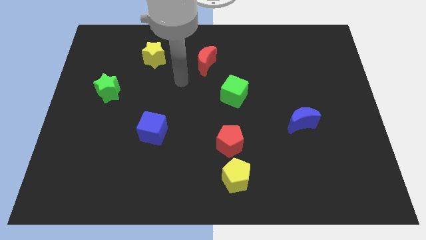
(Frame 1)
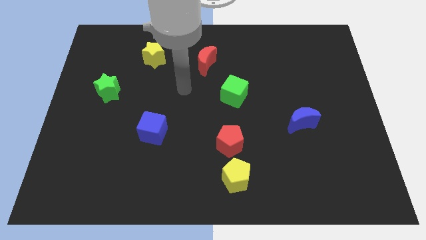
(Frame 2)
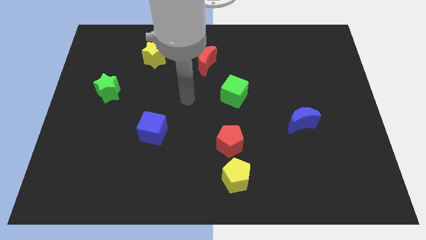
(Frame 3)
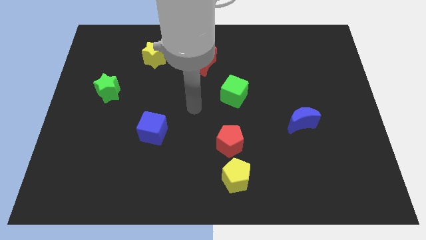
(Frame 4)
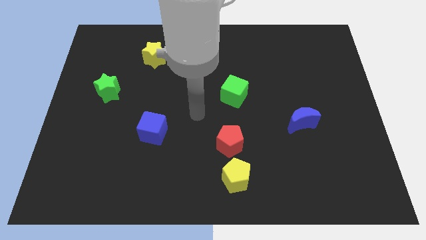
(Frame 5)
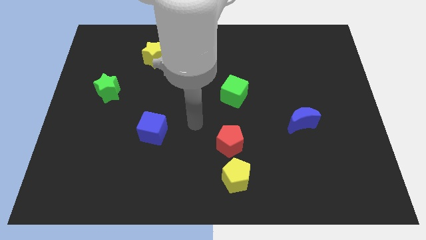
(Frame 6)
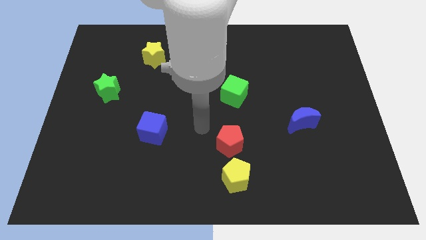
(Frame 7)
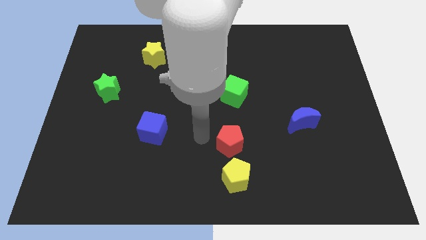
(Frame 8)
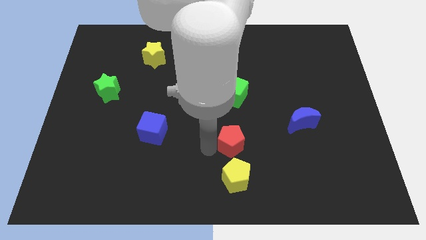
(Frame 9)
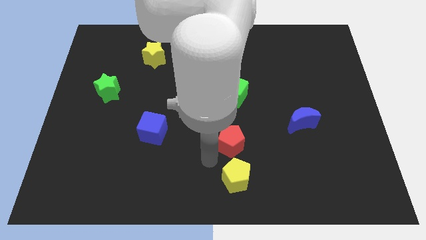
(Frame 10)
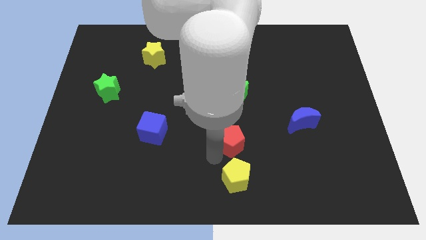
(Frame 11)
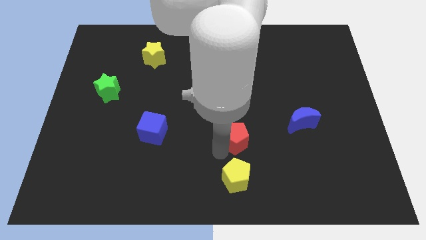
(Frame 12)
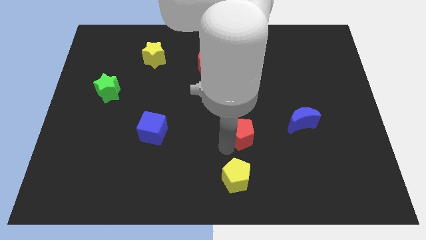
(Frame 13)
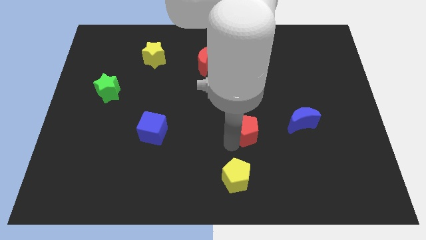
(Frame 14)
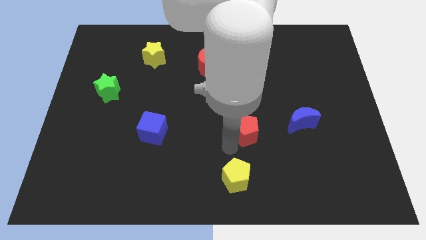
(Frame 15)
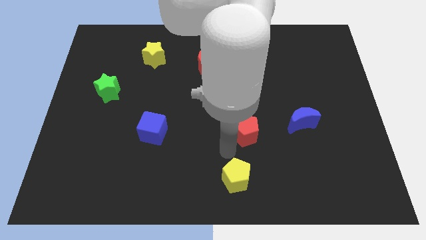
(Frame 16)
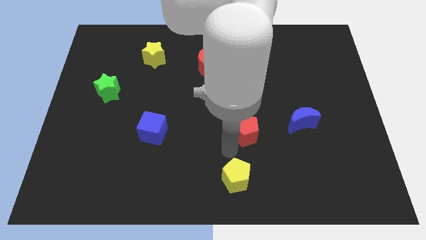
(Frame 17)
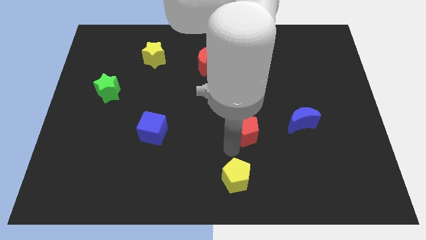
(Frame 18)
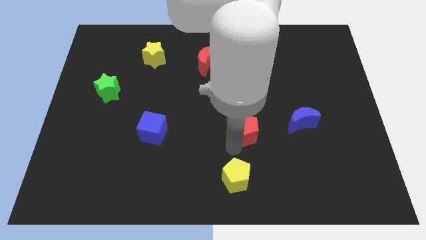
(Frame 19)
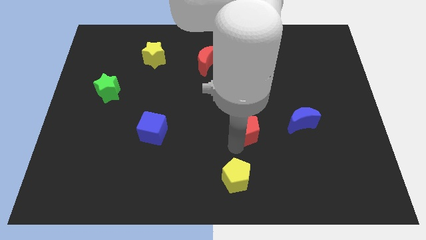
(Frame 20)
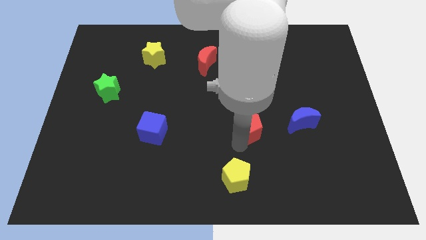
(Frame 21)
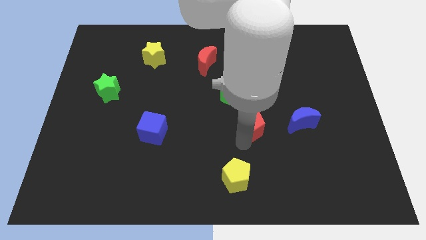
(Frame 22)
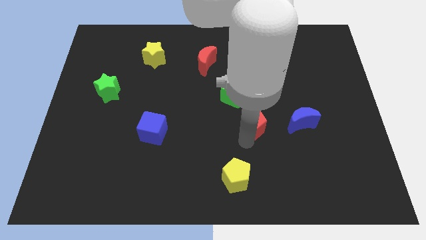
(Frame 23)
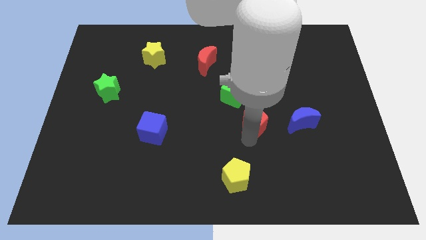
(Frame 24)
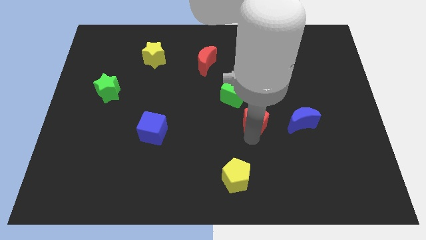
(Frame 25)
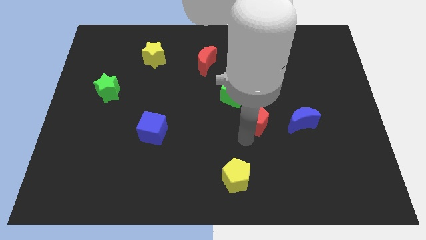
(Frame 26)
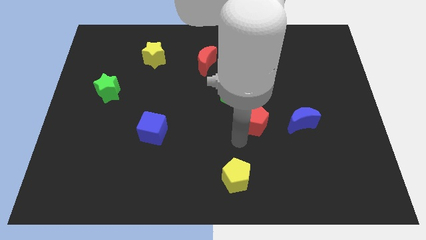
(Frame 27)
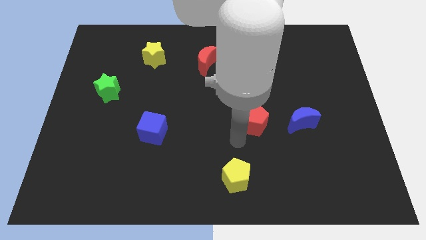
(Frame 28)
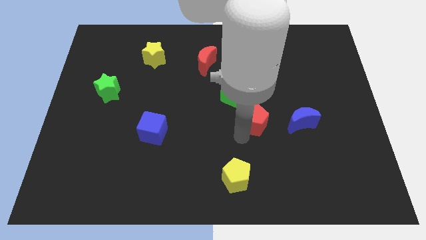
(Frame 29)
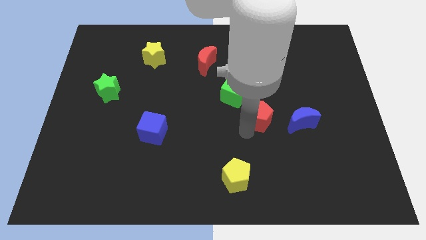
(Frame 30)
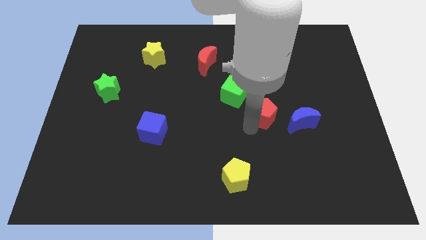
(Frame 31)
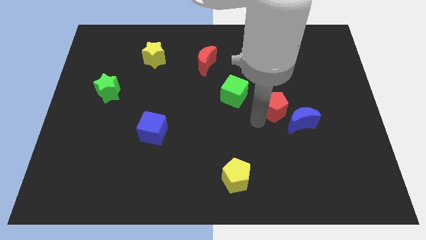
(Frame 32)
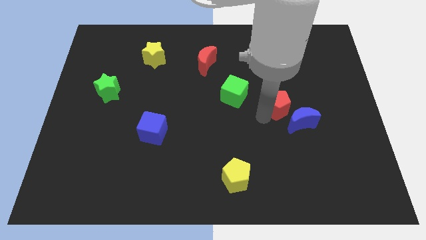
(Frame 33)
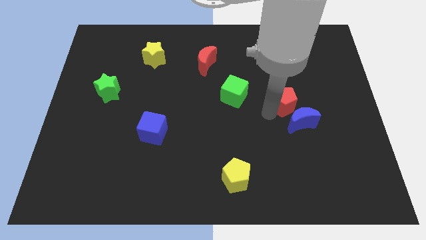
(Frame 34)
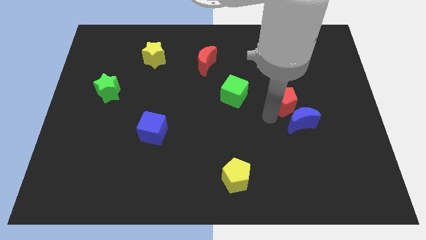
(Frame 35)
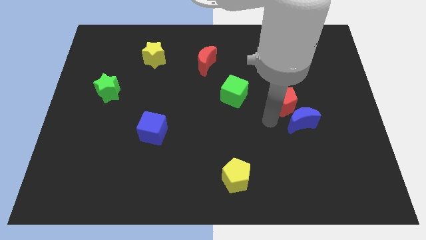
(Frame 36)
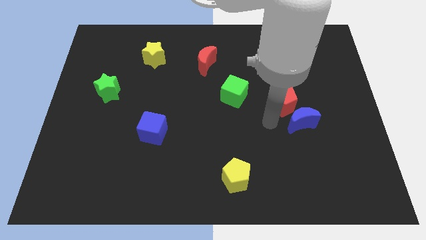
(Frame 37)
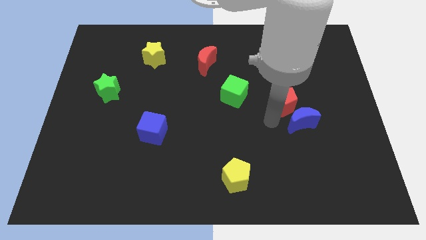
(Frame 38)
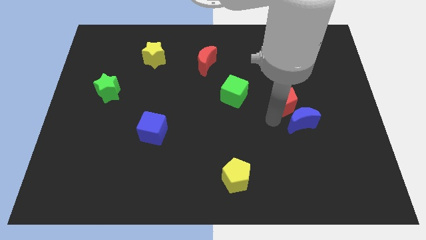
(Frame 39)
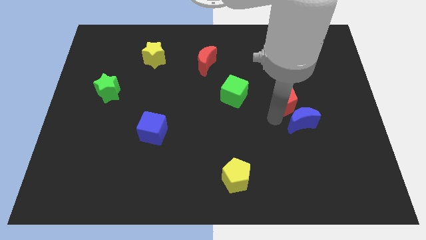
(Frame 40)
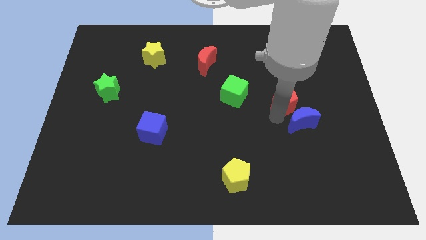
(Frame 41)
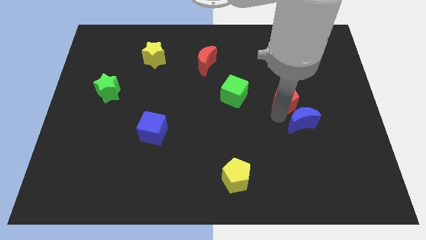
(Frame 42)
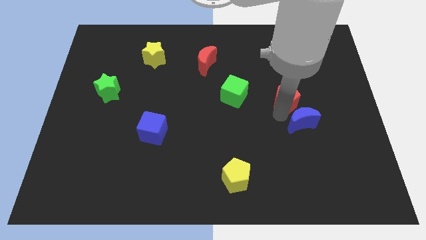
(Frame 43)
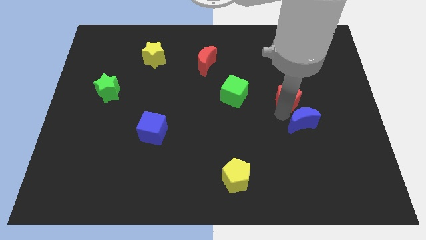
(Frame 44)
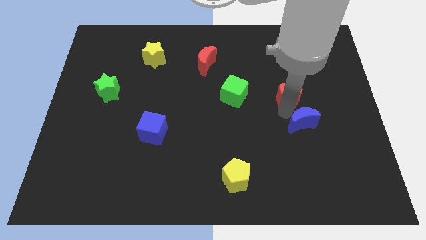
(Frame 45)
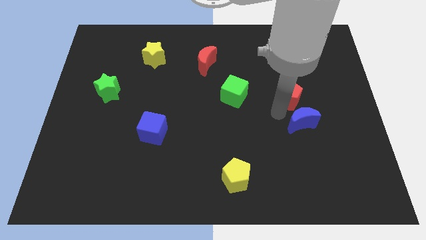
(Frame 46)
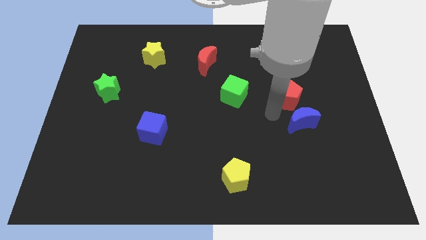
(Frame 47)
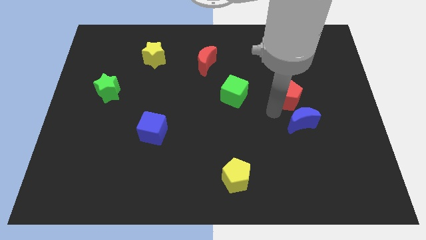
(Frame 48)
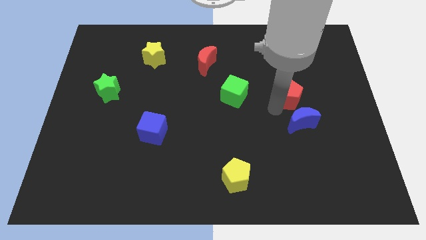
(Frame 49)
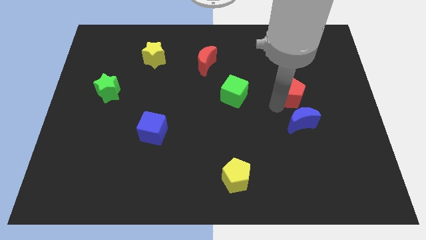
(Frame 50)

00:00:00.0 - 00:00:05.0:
slide the red pentagon upwards and to the right diagonally

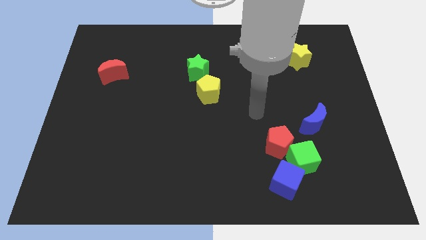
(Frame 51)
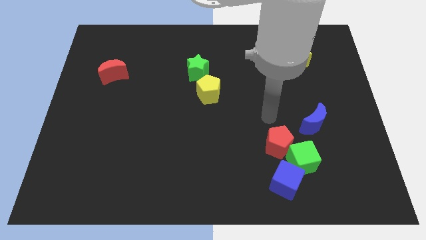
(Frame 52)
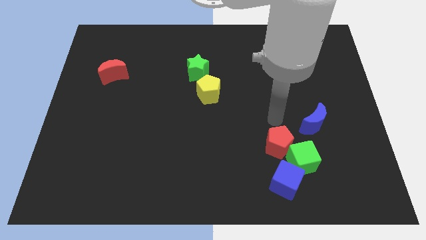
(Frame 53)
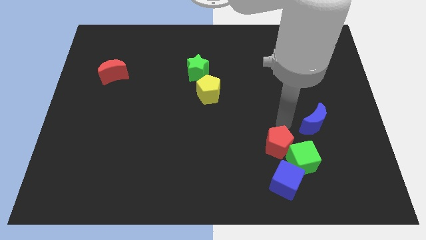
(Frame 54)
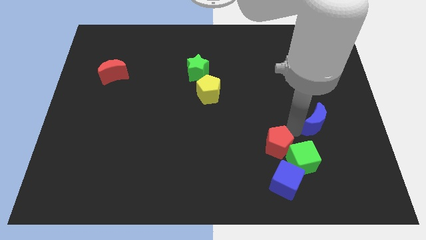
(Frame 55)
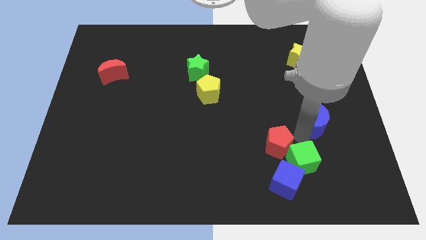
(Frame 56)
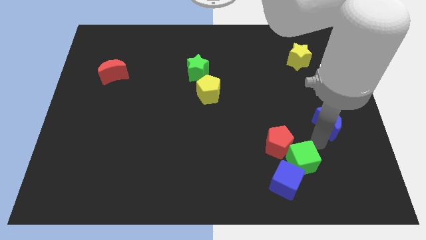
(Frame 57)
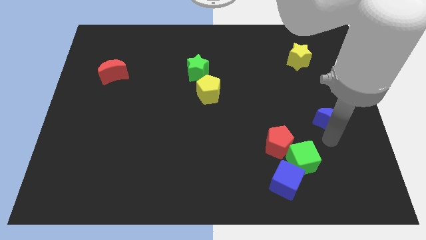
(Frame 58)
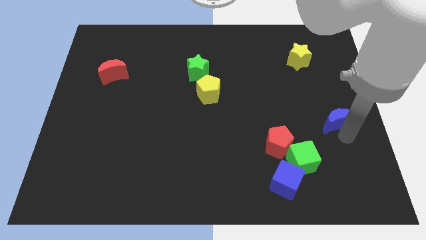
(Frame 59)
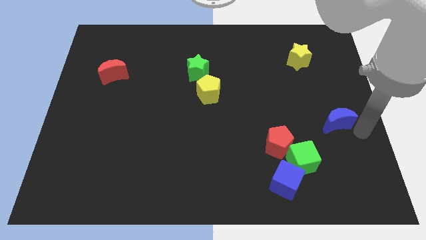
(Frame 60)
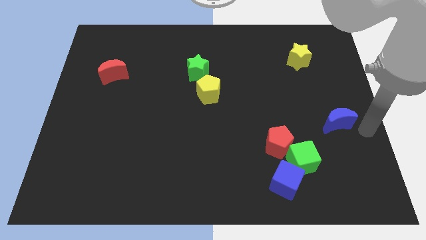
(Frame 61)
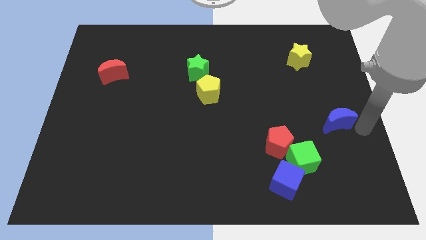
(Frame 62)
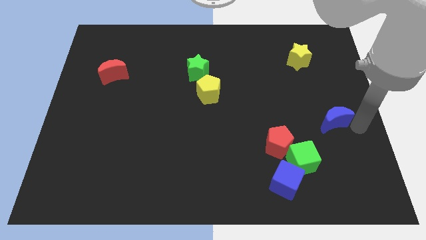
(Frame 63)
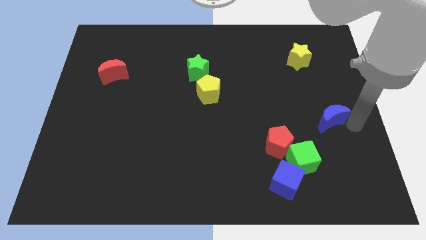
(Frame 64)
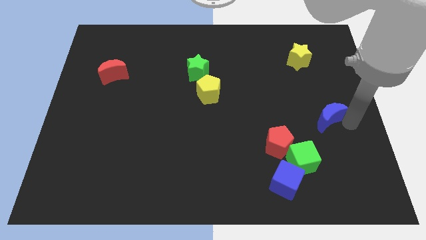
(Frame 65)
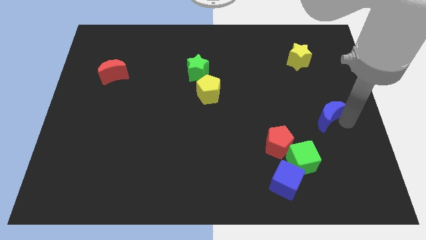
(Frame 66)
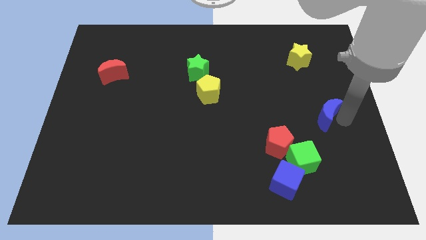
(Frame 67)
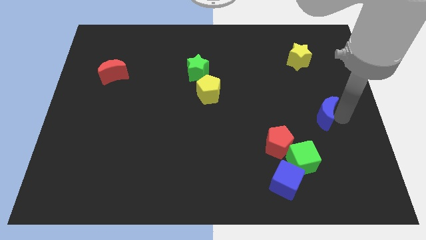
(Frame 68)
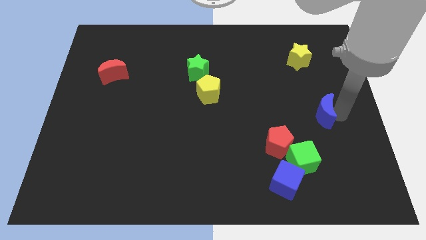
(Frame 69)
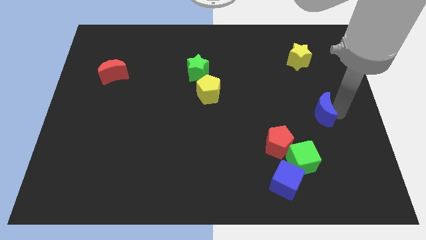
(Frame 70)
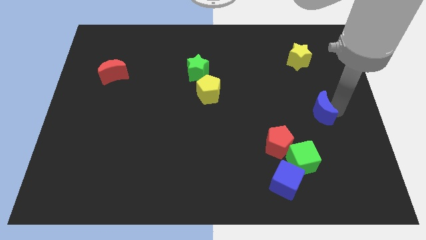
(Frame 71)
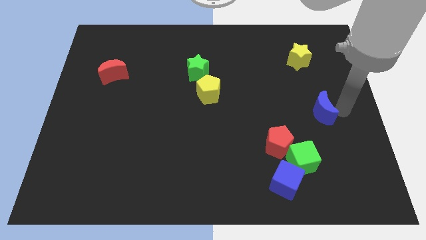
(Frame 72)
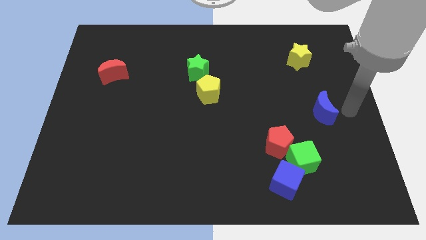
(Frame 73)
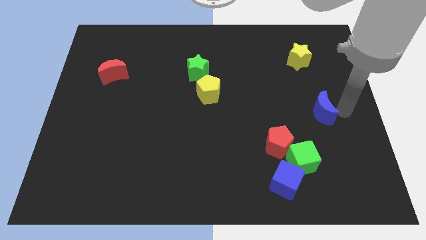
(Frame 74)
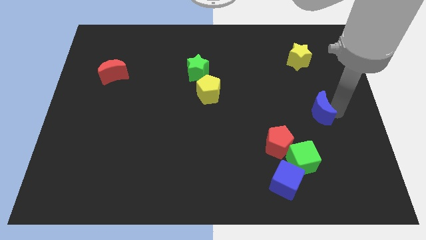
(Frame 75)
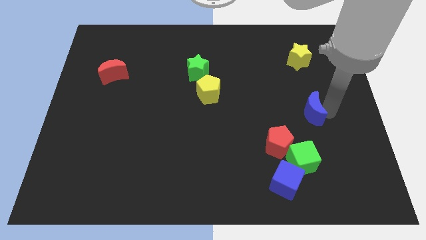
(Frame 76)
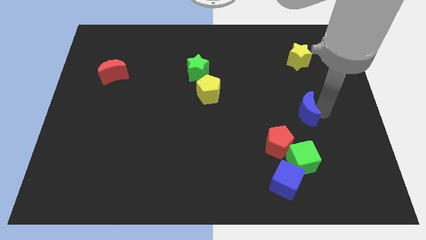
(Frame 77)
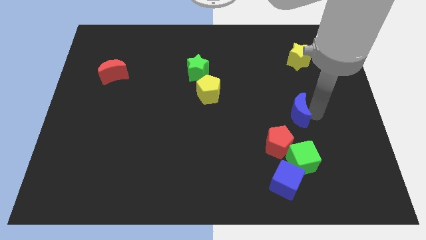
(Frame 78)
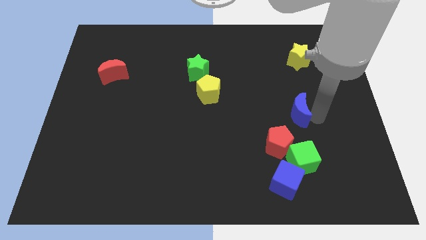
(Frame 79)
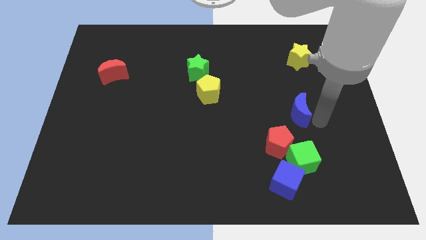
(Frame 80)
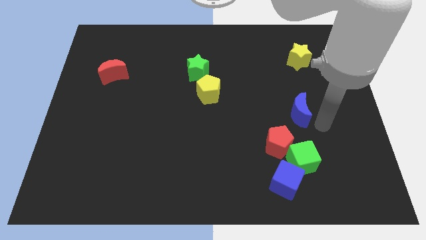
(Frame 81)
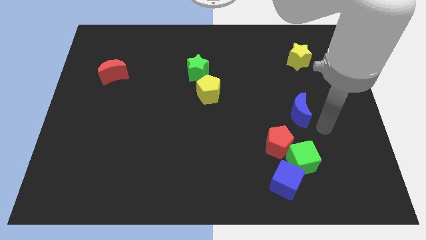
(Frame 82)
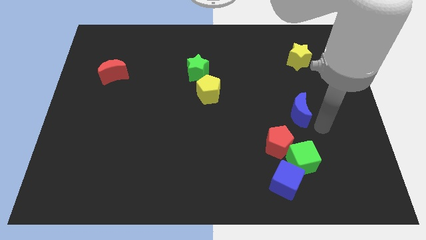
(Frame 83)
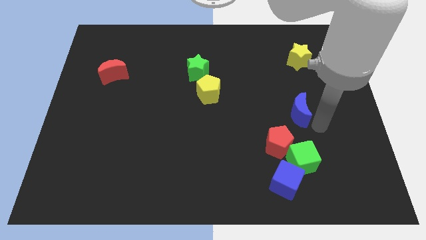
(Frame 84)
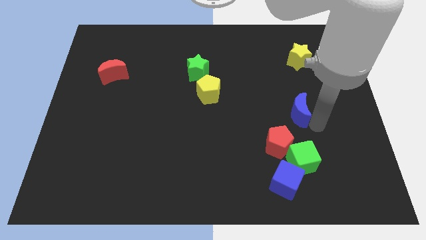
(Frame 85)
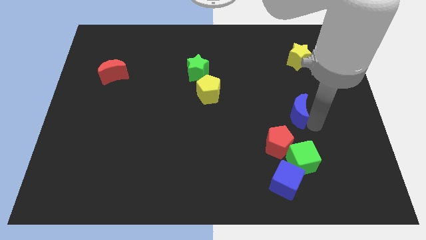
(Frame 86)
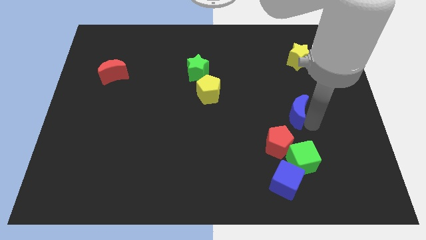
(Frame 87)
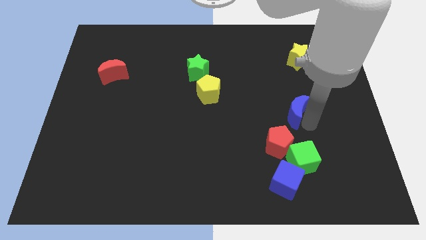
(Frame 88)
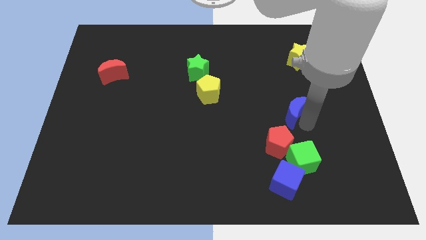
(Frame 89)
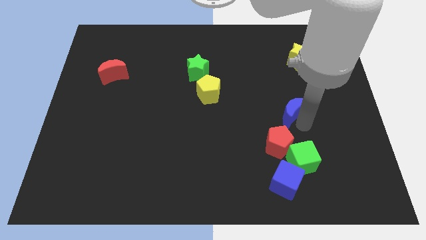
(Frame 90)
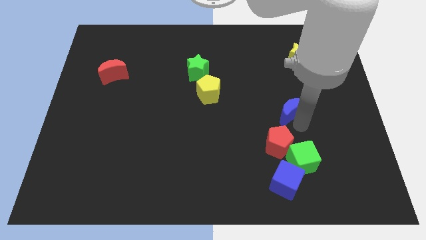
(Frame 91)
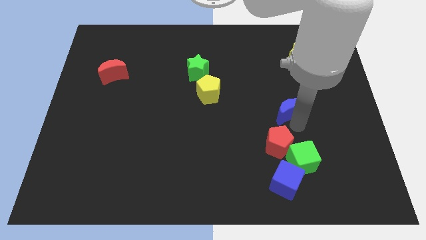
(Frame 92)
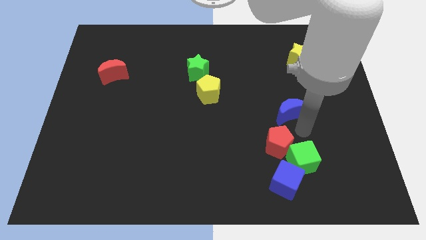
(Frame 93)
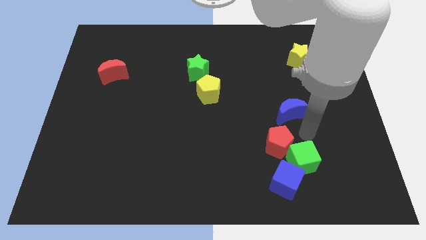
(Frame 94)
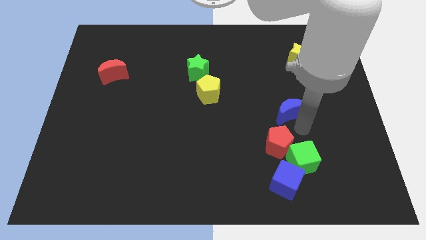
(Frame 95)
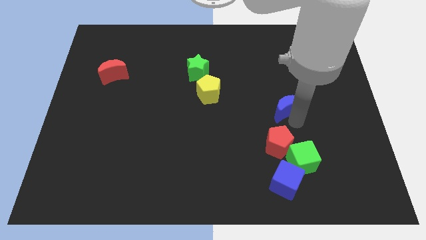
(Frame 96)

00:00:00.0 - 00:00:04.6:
slide the blue moon a little upwards and then to the left
